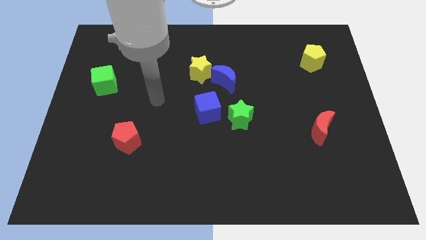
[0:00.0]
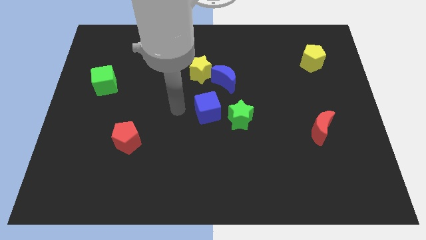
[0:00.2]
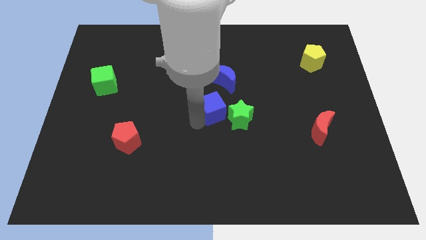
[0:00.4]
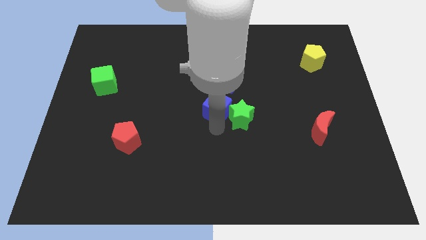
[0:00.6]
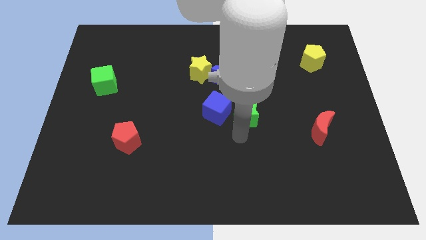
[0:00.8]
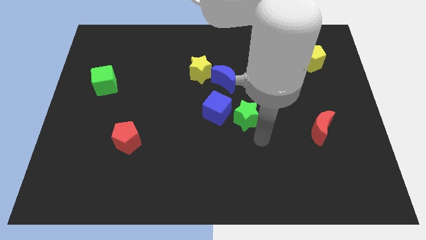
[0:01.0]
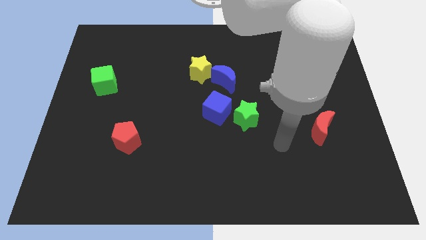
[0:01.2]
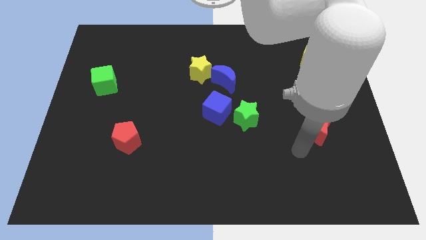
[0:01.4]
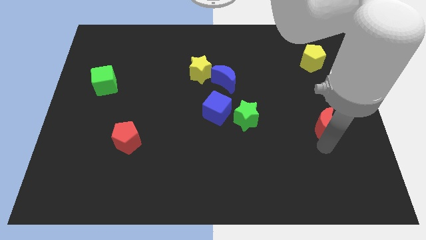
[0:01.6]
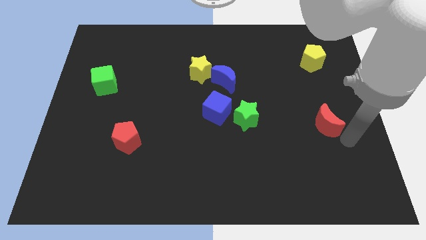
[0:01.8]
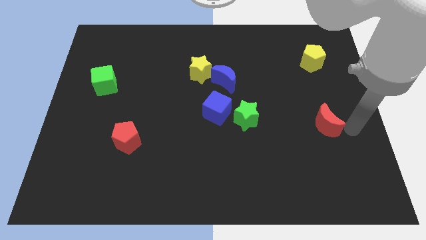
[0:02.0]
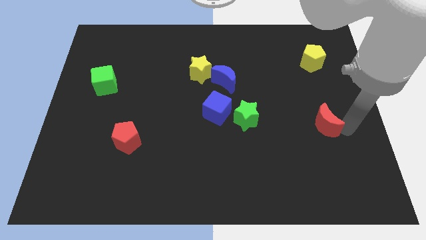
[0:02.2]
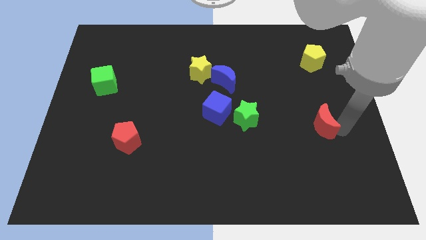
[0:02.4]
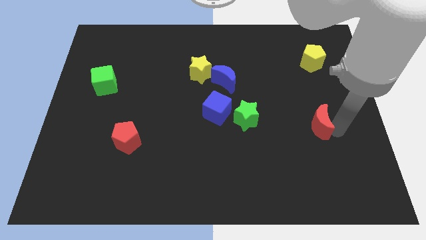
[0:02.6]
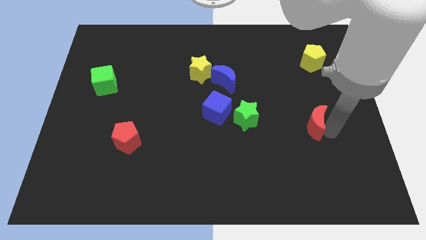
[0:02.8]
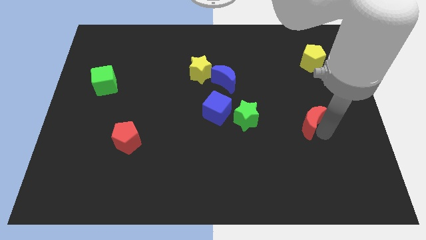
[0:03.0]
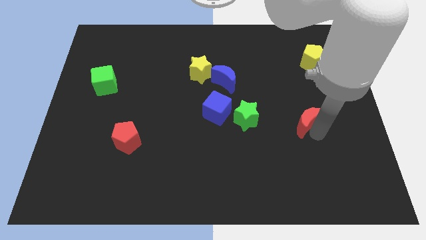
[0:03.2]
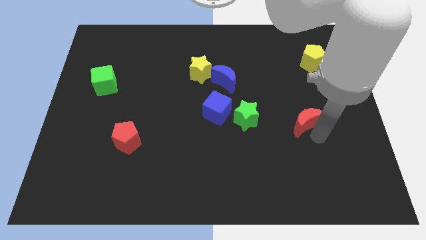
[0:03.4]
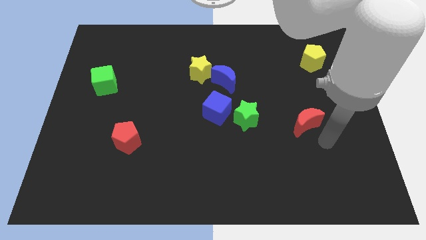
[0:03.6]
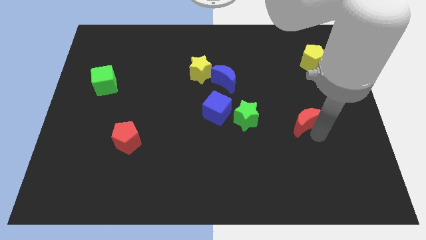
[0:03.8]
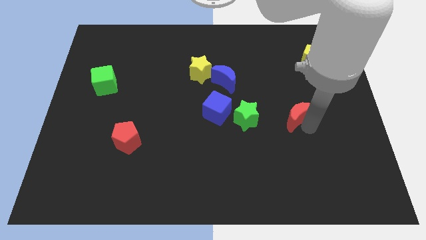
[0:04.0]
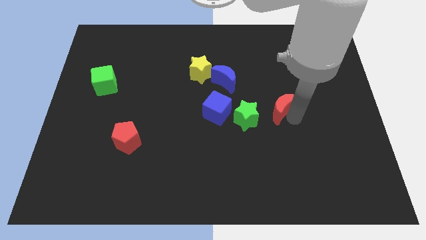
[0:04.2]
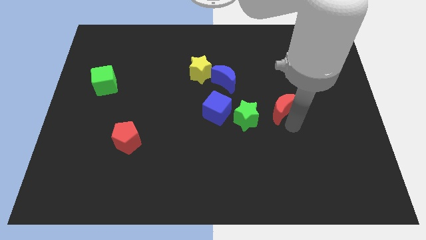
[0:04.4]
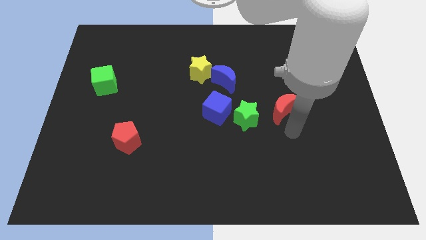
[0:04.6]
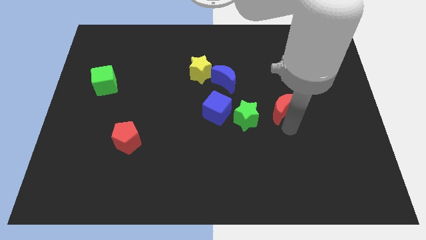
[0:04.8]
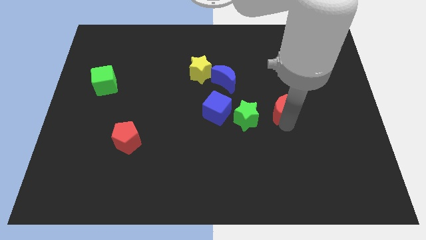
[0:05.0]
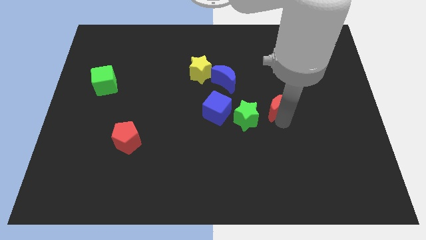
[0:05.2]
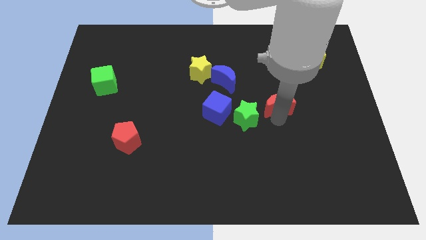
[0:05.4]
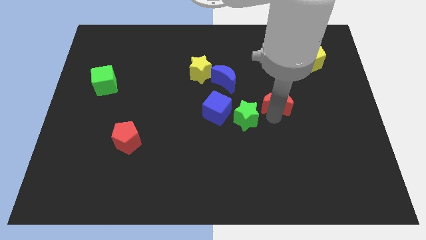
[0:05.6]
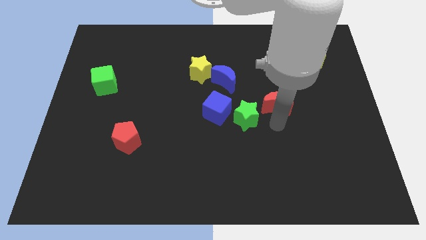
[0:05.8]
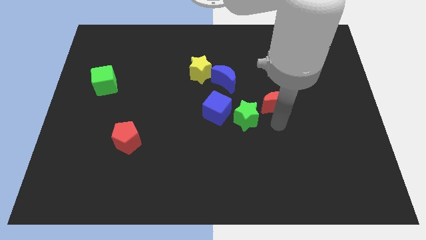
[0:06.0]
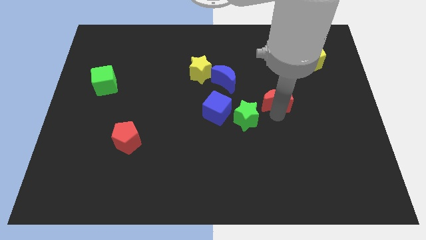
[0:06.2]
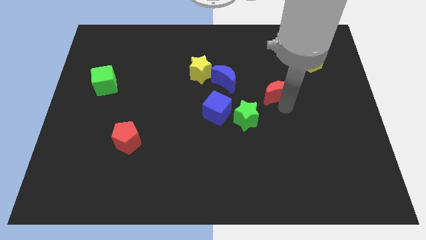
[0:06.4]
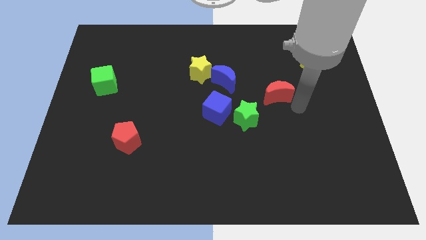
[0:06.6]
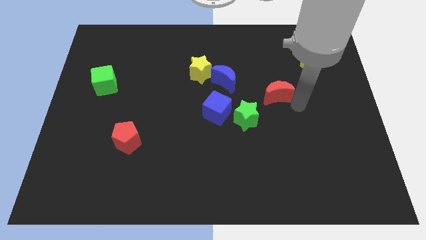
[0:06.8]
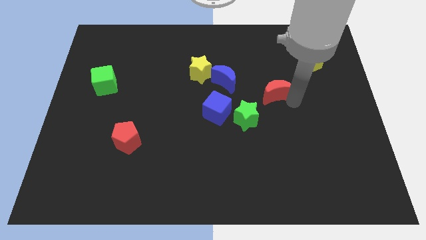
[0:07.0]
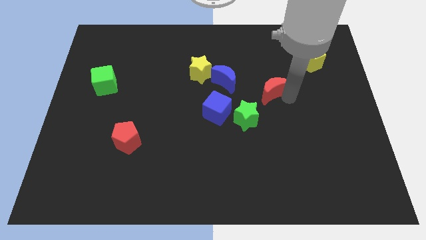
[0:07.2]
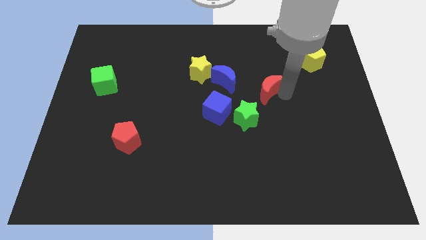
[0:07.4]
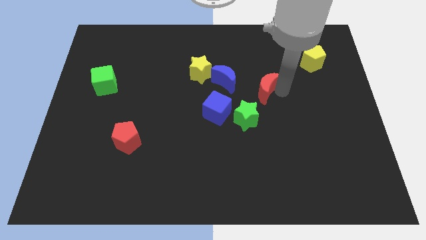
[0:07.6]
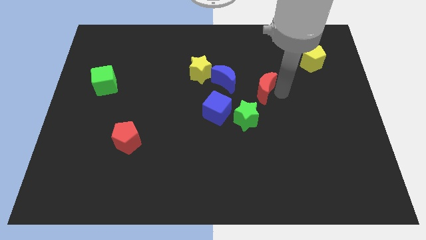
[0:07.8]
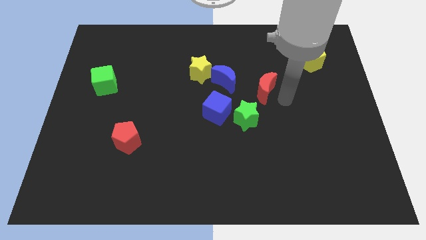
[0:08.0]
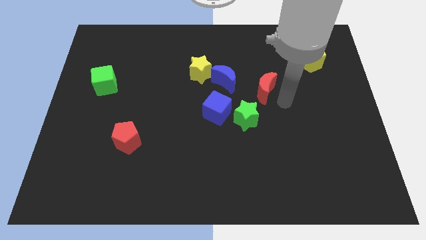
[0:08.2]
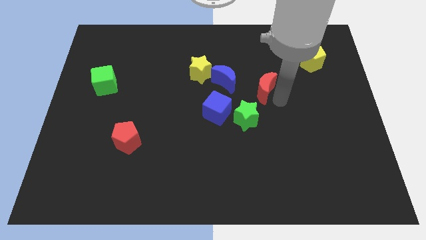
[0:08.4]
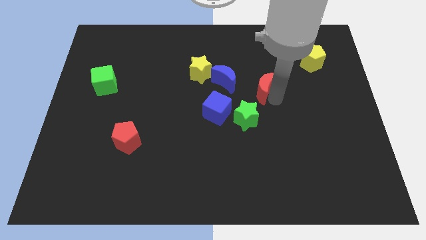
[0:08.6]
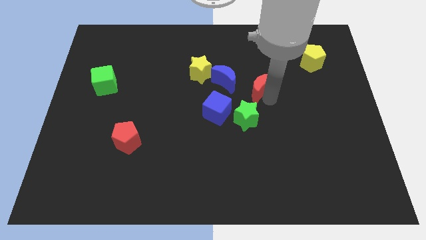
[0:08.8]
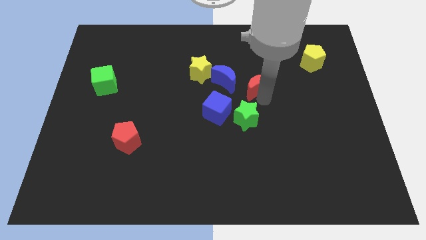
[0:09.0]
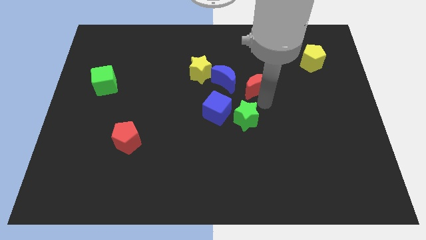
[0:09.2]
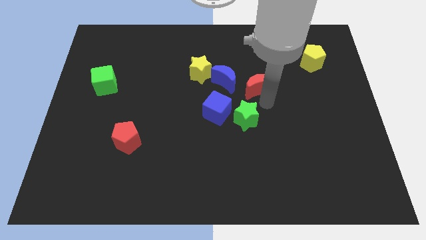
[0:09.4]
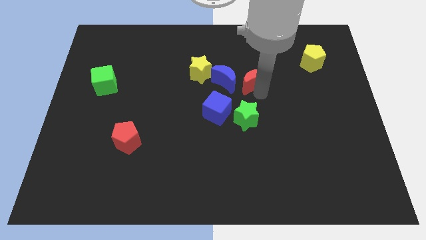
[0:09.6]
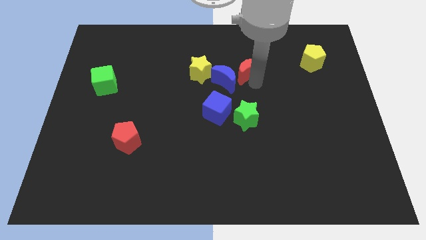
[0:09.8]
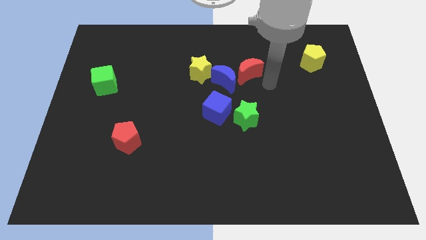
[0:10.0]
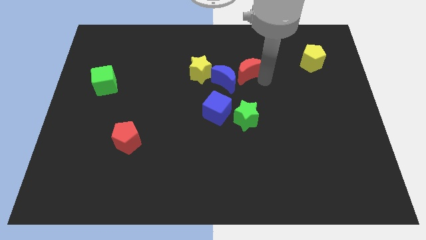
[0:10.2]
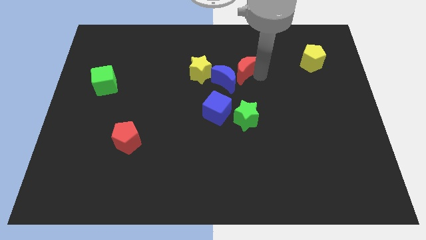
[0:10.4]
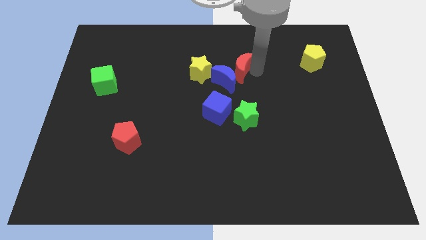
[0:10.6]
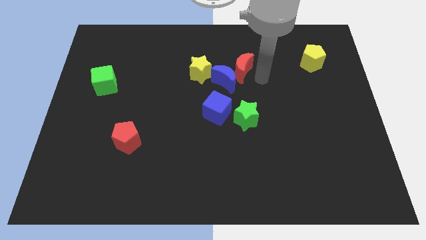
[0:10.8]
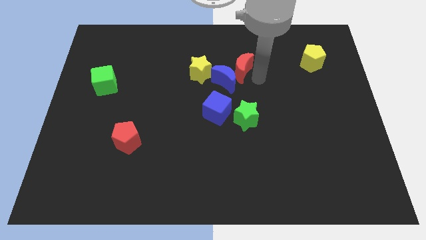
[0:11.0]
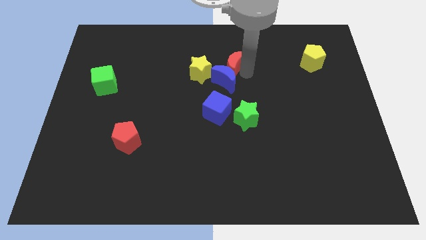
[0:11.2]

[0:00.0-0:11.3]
slide the red moon to the top right side of the yellow star

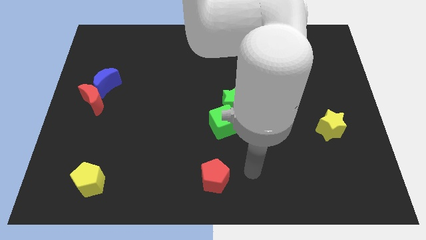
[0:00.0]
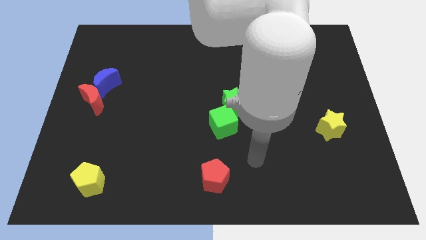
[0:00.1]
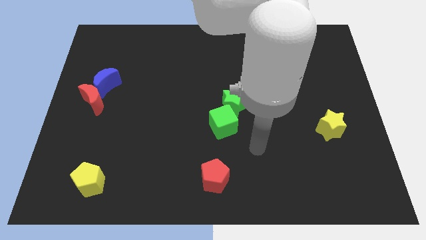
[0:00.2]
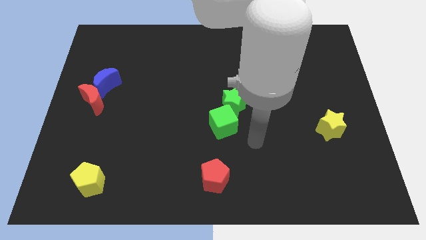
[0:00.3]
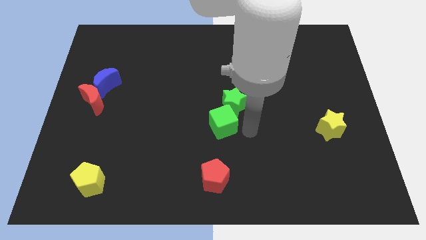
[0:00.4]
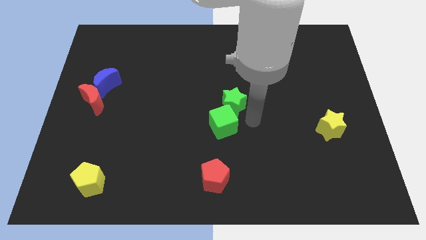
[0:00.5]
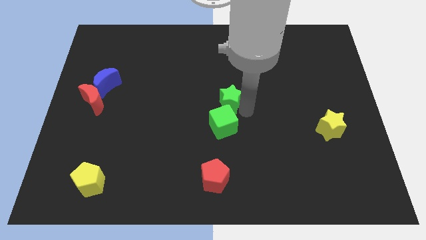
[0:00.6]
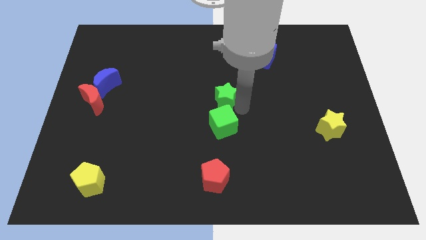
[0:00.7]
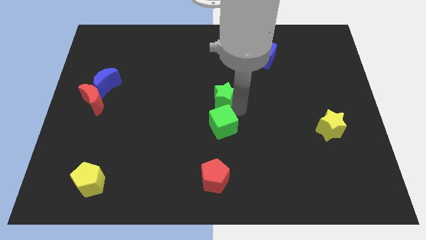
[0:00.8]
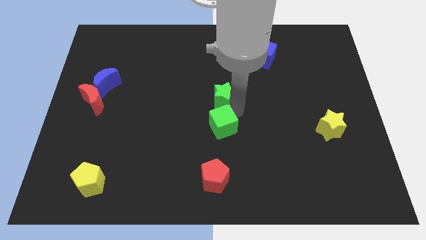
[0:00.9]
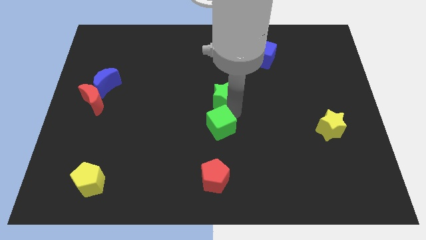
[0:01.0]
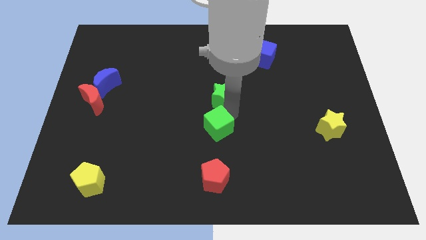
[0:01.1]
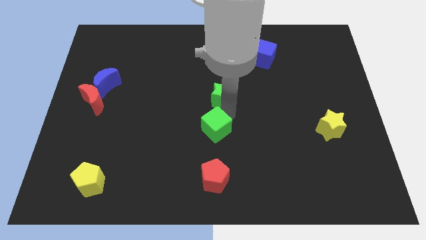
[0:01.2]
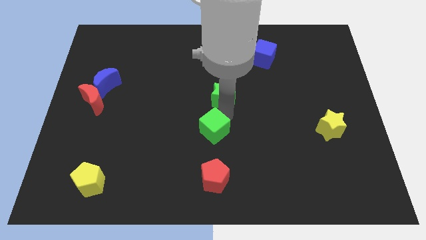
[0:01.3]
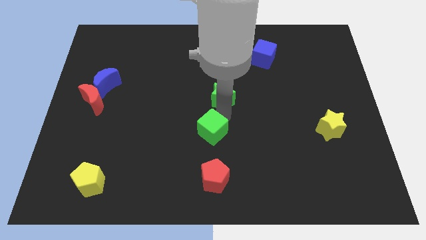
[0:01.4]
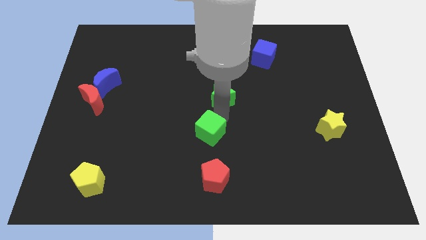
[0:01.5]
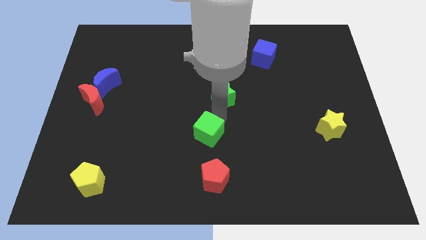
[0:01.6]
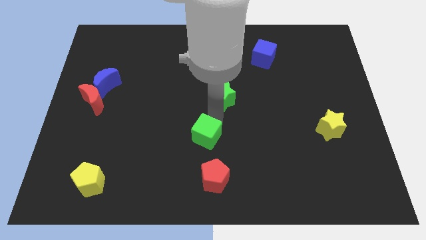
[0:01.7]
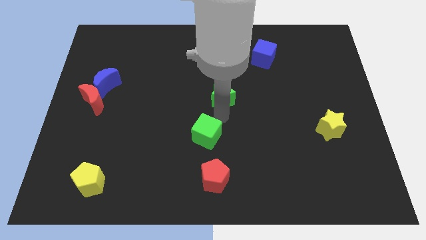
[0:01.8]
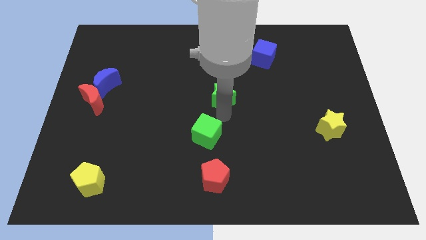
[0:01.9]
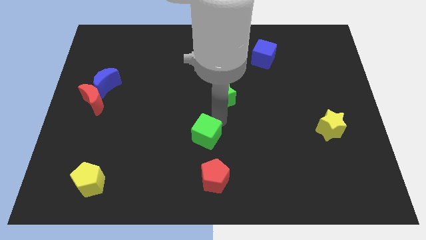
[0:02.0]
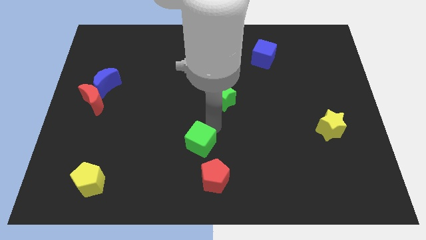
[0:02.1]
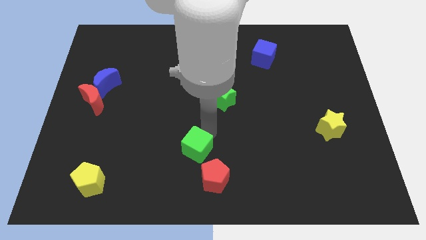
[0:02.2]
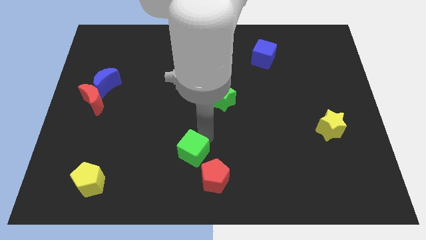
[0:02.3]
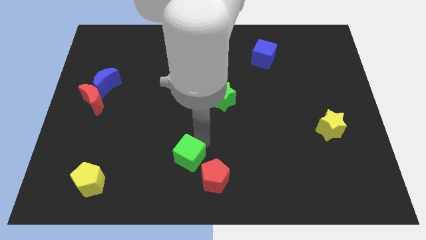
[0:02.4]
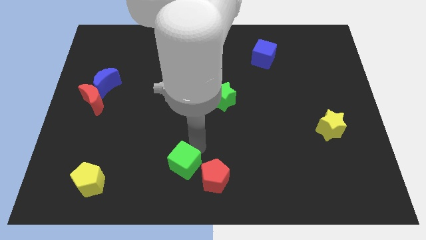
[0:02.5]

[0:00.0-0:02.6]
move the green cube to the left of the red pentagon
